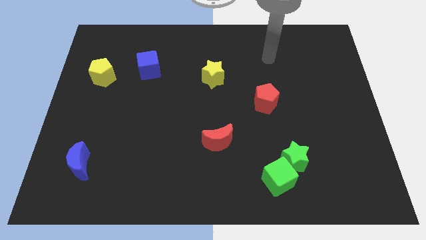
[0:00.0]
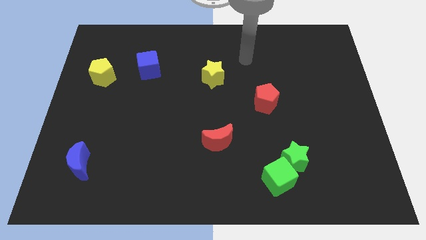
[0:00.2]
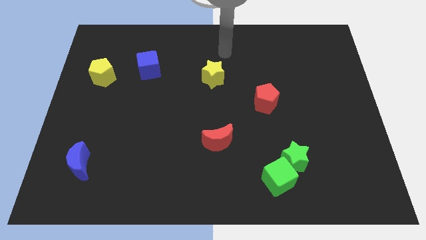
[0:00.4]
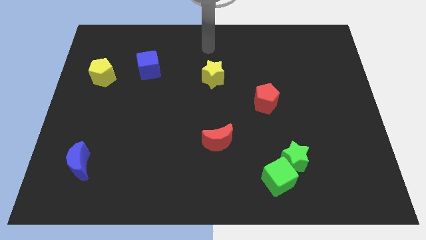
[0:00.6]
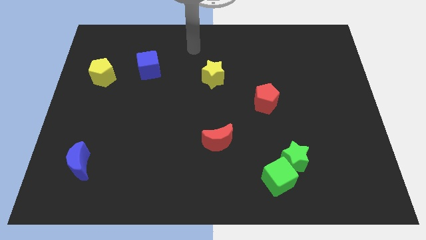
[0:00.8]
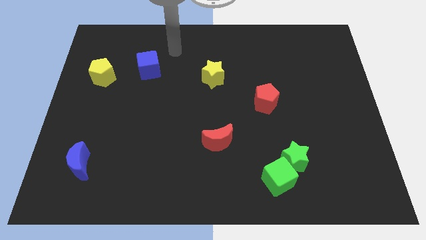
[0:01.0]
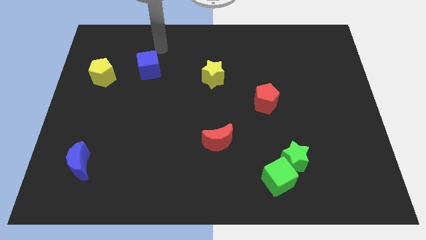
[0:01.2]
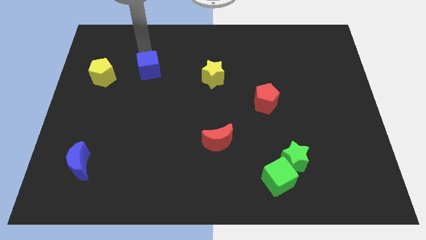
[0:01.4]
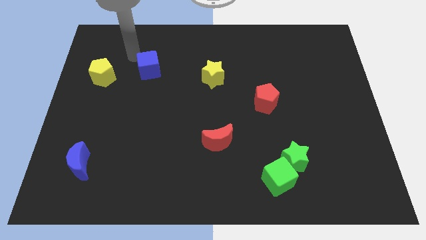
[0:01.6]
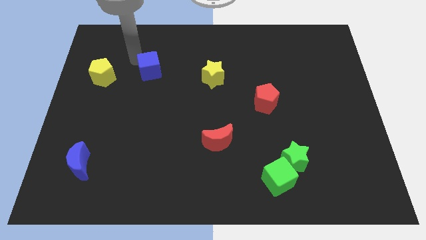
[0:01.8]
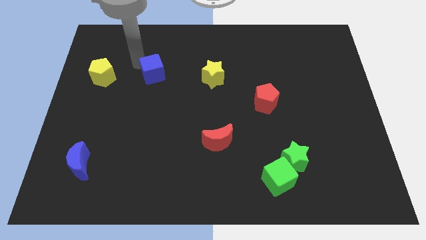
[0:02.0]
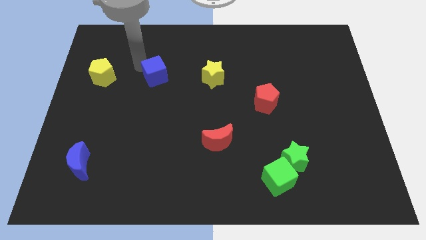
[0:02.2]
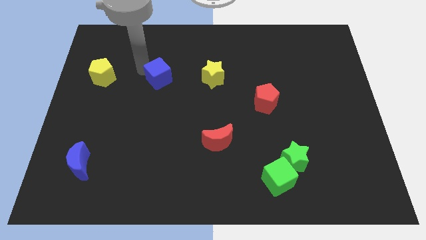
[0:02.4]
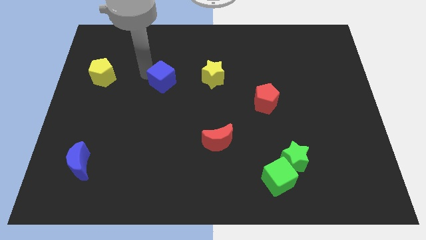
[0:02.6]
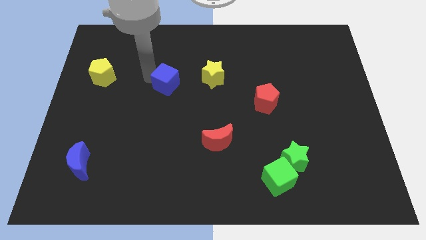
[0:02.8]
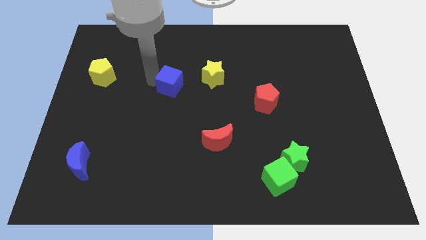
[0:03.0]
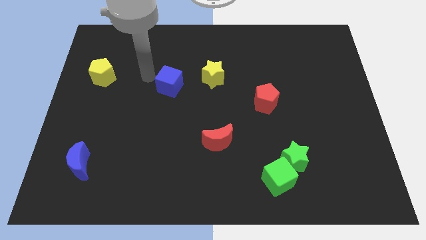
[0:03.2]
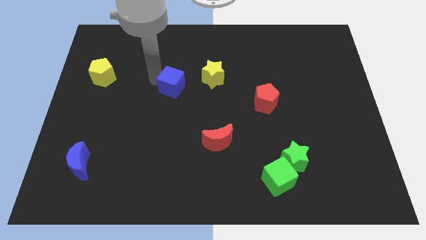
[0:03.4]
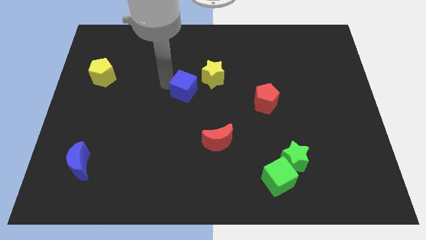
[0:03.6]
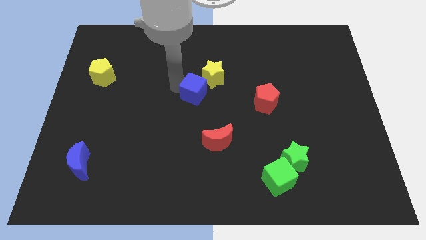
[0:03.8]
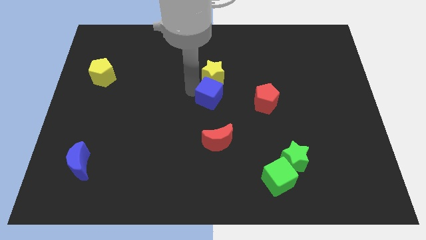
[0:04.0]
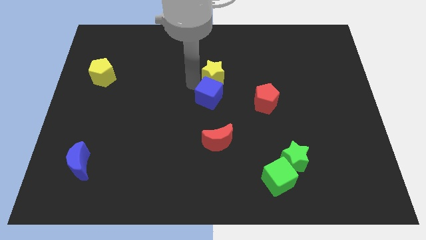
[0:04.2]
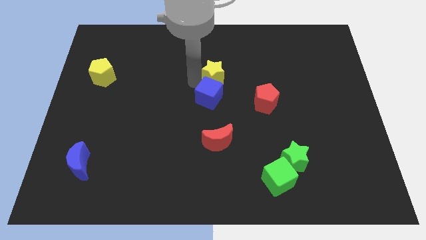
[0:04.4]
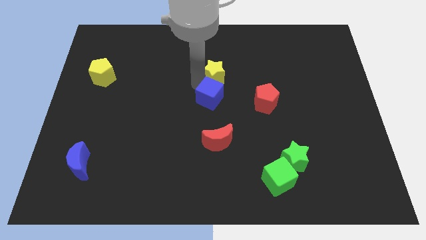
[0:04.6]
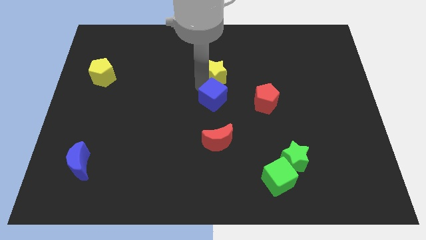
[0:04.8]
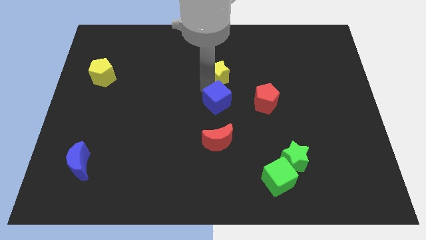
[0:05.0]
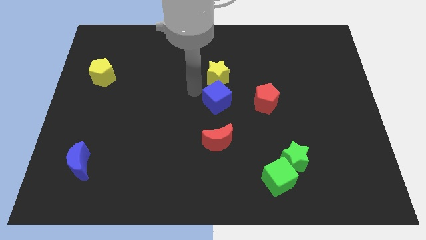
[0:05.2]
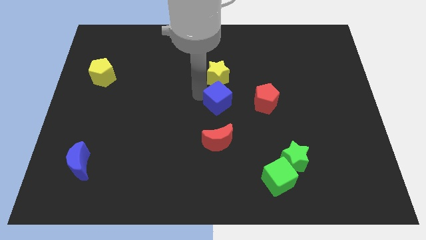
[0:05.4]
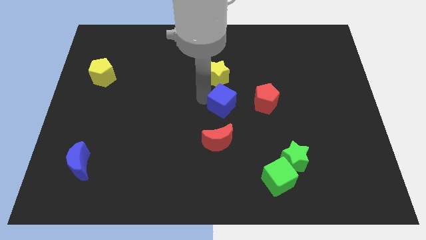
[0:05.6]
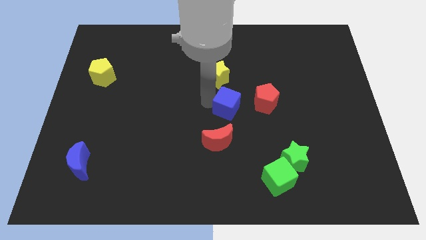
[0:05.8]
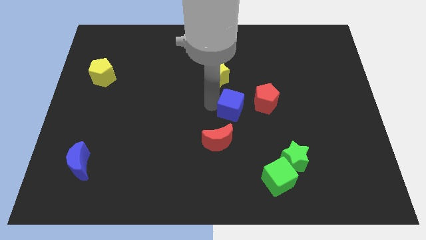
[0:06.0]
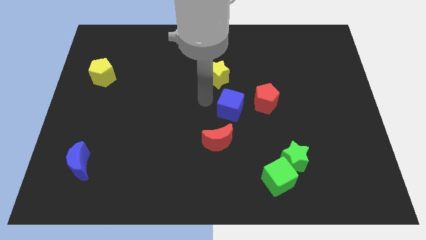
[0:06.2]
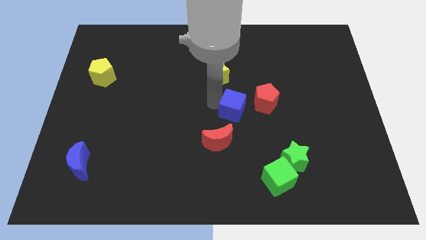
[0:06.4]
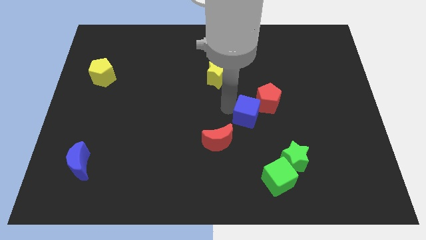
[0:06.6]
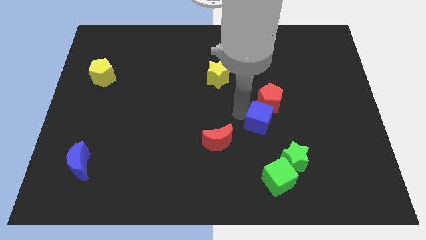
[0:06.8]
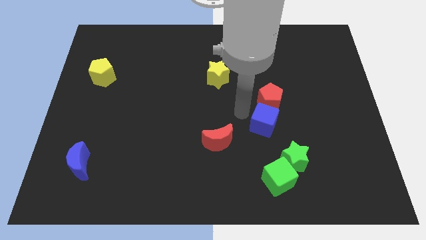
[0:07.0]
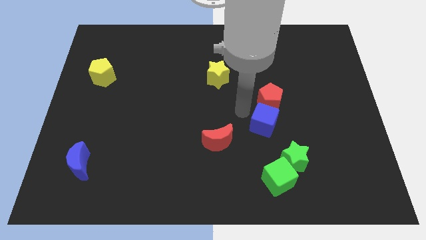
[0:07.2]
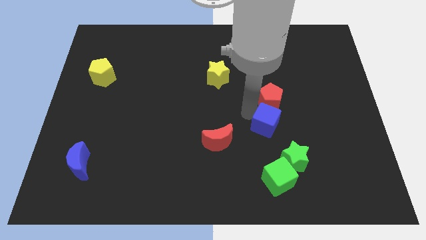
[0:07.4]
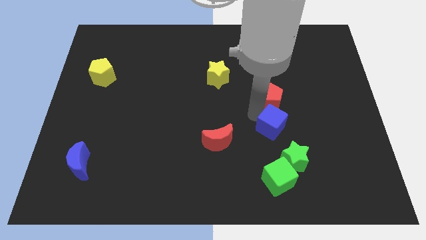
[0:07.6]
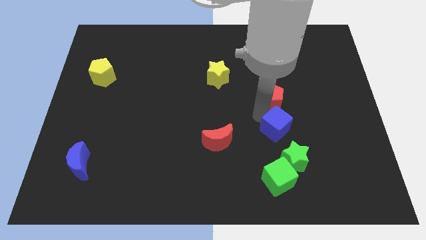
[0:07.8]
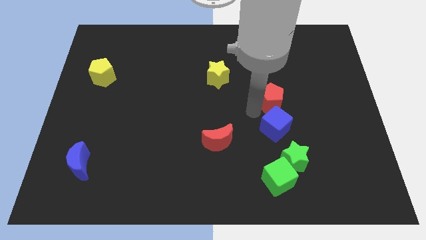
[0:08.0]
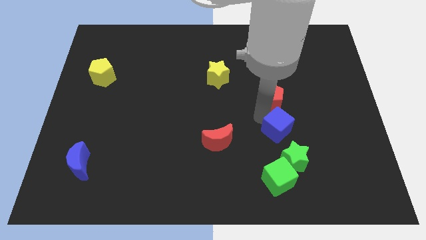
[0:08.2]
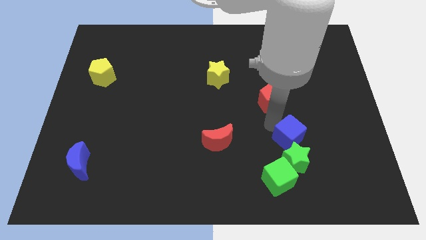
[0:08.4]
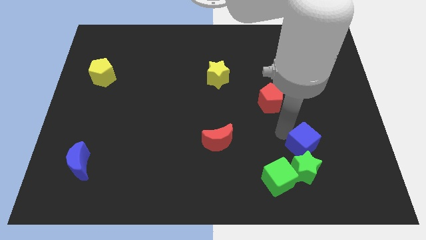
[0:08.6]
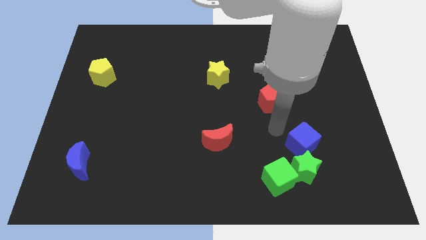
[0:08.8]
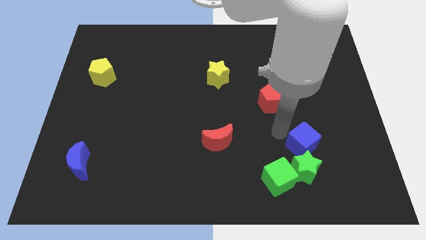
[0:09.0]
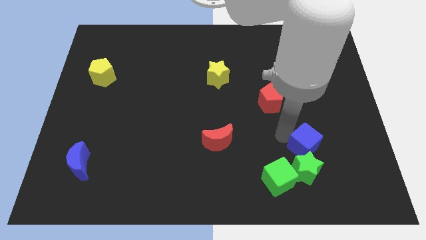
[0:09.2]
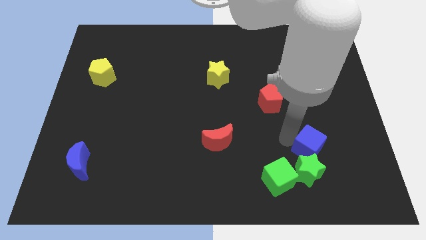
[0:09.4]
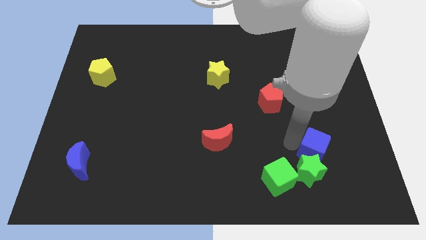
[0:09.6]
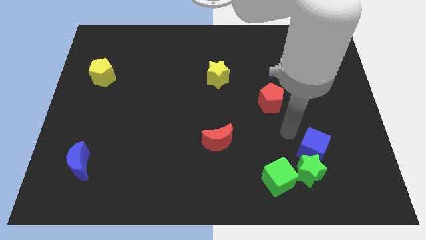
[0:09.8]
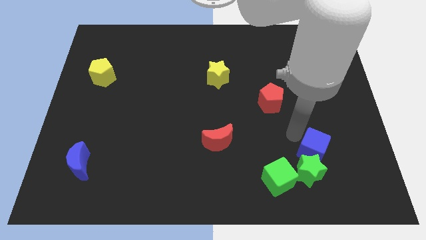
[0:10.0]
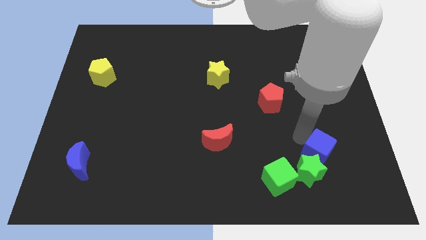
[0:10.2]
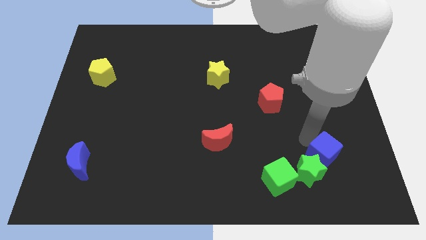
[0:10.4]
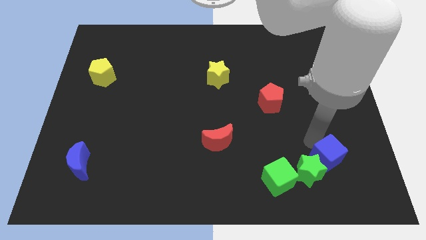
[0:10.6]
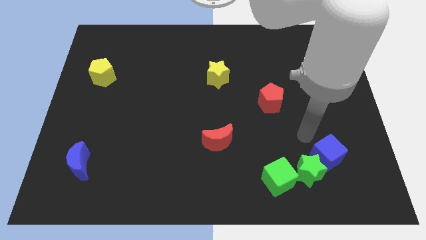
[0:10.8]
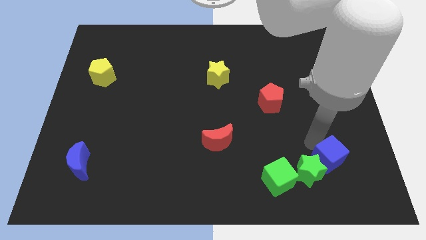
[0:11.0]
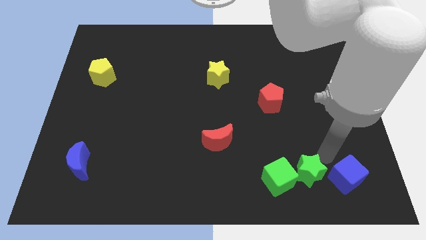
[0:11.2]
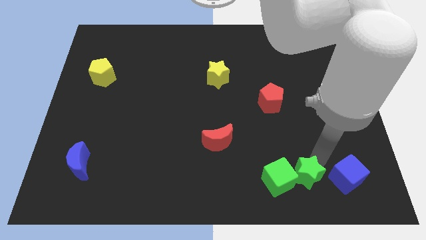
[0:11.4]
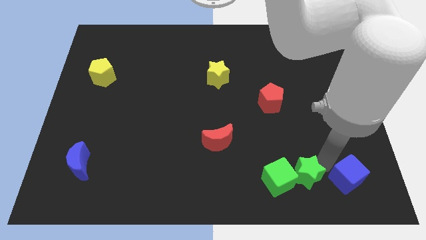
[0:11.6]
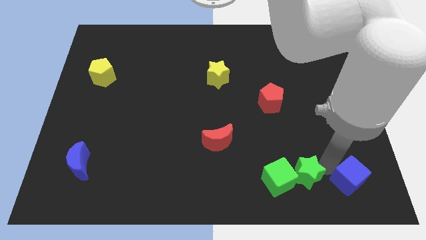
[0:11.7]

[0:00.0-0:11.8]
put the blue cube to the bottom right of the board

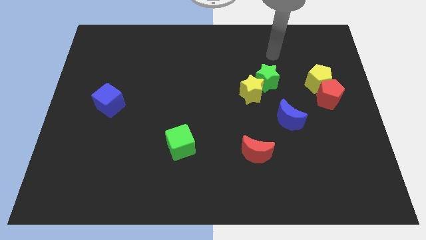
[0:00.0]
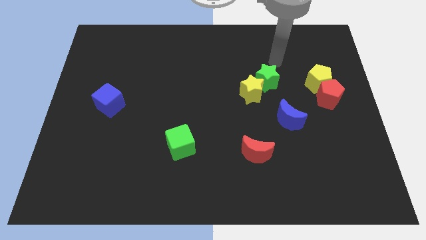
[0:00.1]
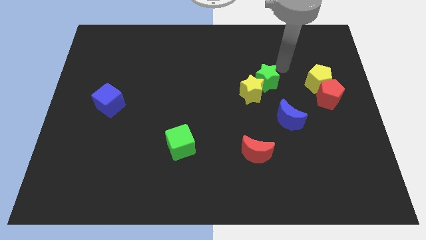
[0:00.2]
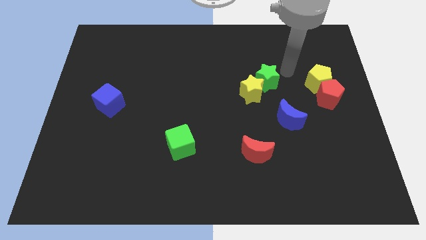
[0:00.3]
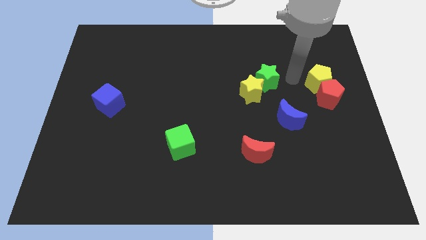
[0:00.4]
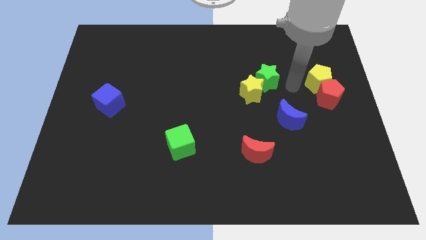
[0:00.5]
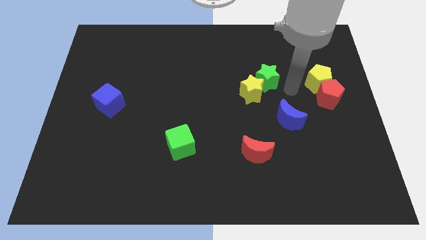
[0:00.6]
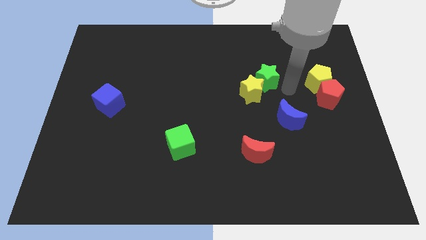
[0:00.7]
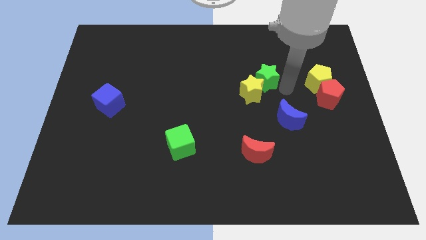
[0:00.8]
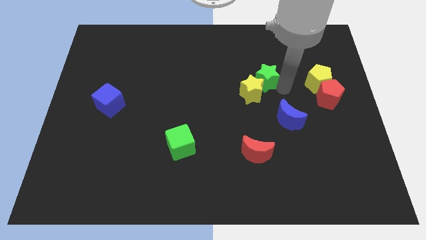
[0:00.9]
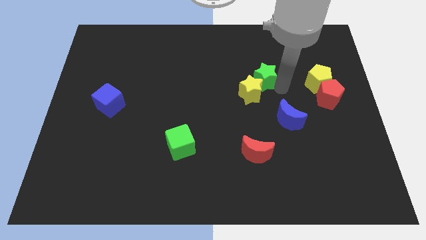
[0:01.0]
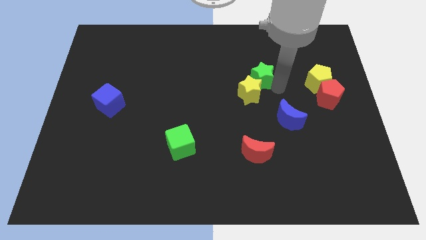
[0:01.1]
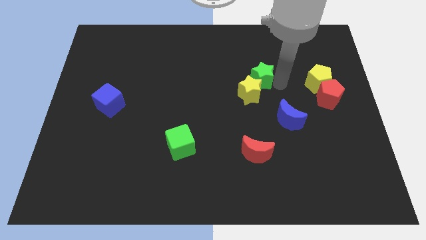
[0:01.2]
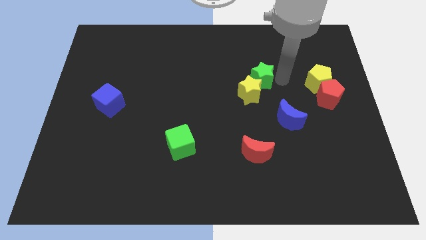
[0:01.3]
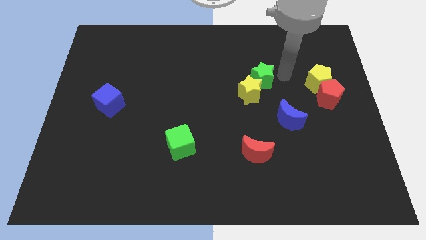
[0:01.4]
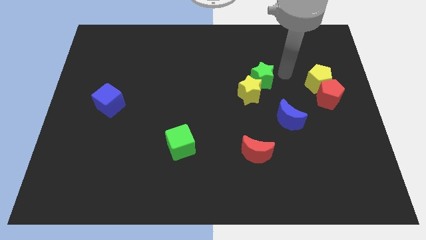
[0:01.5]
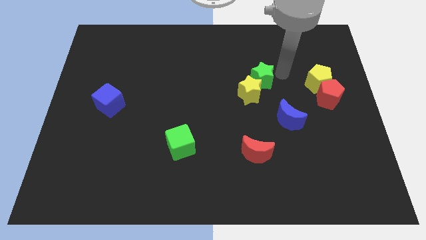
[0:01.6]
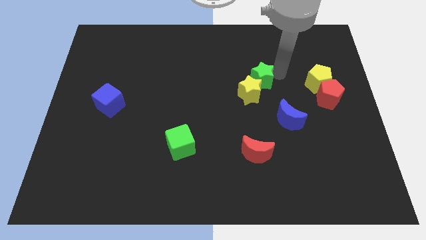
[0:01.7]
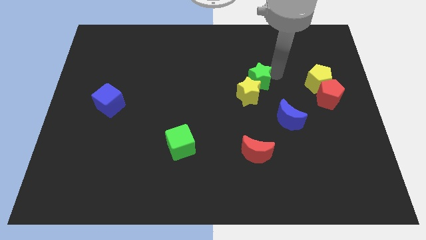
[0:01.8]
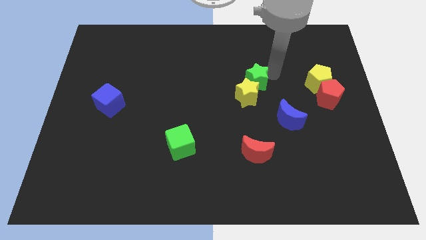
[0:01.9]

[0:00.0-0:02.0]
put the green star to the center of the board
